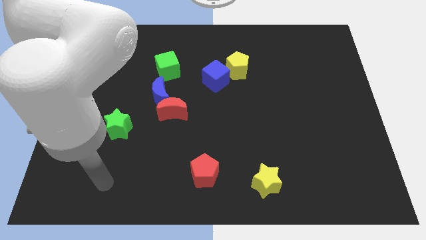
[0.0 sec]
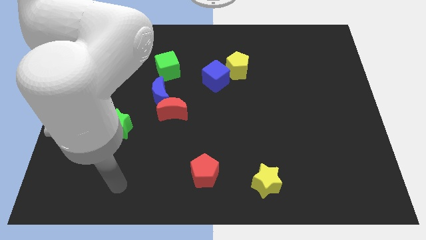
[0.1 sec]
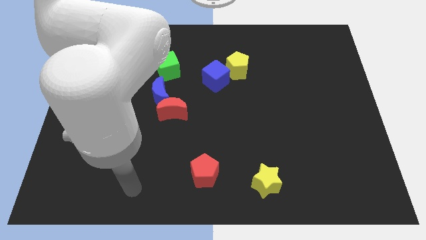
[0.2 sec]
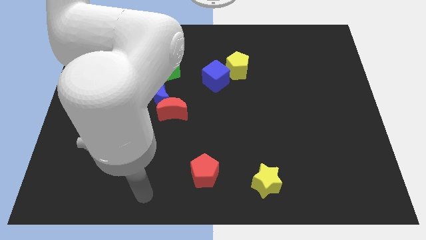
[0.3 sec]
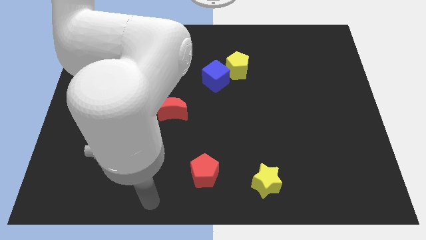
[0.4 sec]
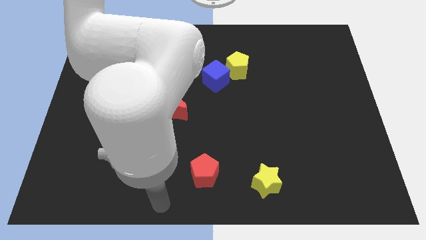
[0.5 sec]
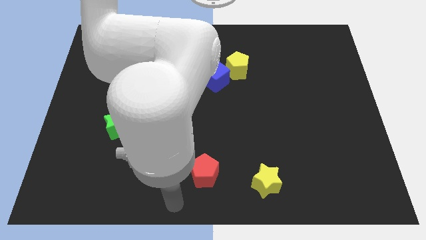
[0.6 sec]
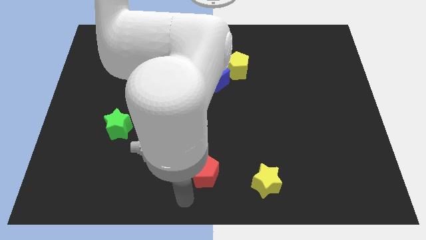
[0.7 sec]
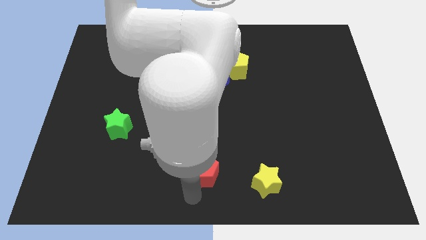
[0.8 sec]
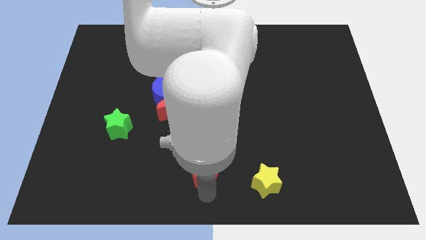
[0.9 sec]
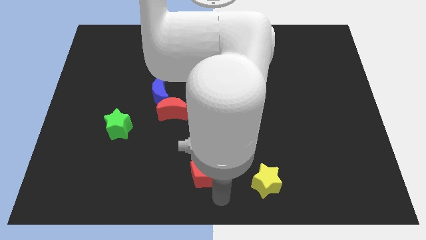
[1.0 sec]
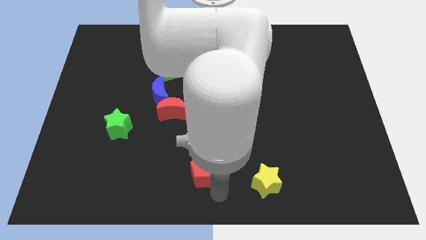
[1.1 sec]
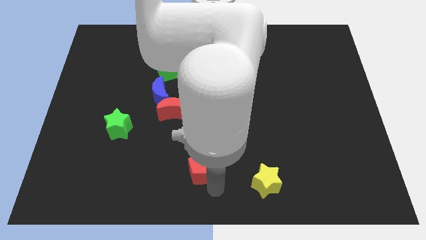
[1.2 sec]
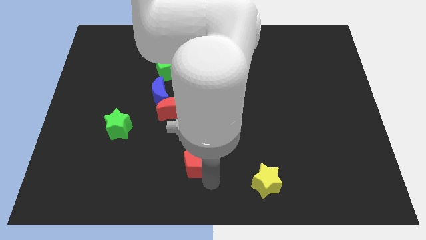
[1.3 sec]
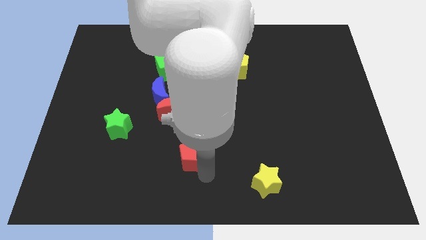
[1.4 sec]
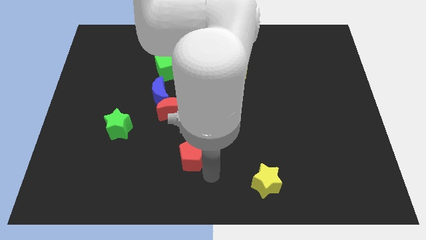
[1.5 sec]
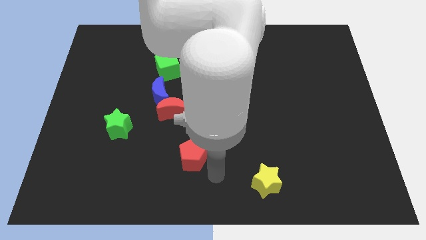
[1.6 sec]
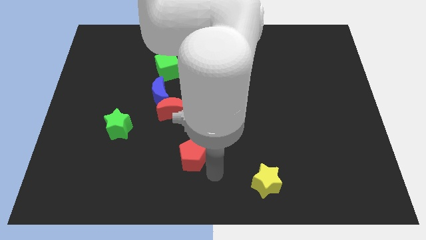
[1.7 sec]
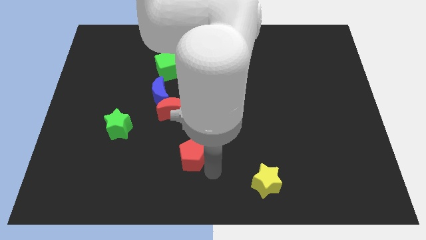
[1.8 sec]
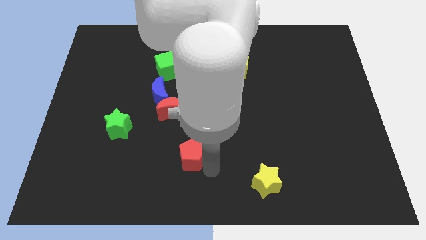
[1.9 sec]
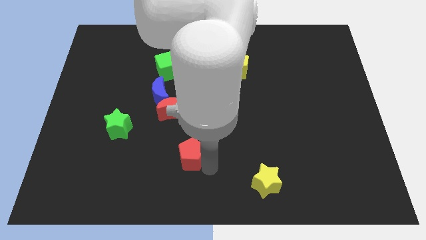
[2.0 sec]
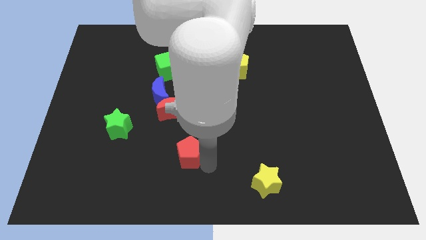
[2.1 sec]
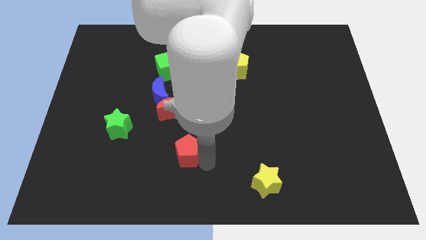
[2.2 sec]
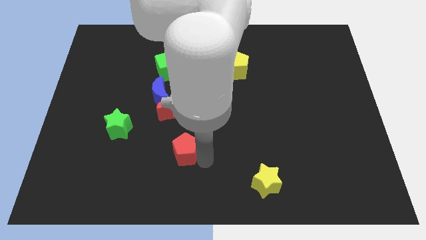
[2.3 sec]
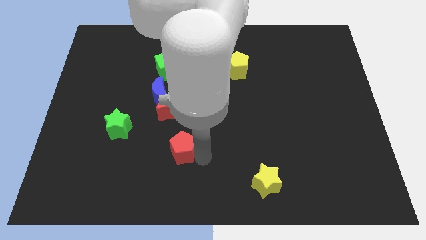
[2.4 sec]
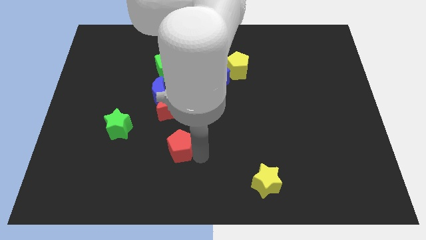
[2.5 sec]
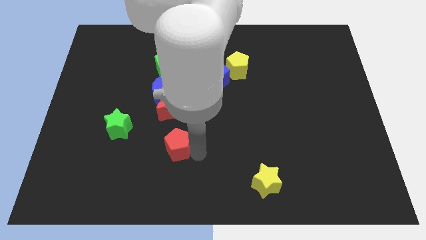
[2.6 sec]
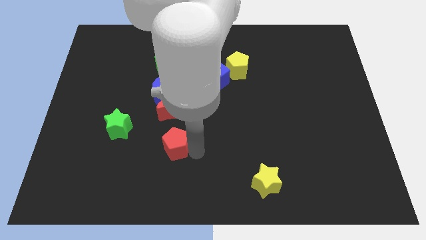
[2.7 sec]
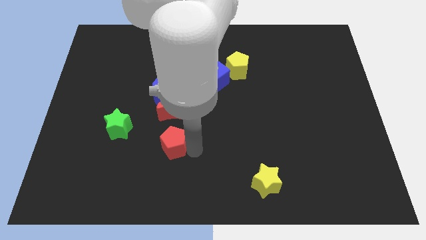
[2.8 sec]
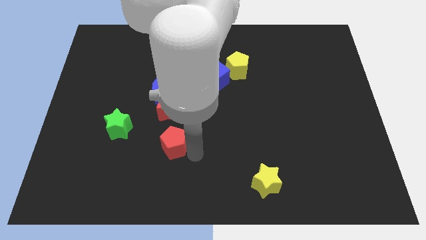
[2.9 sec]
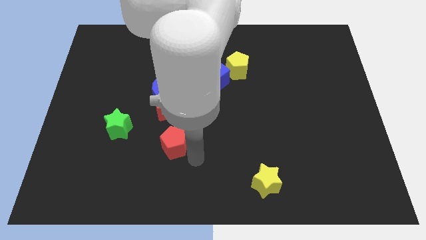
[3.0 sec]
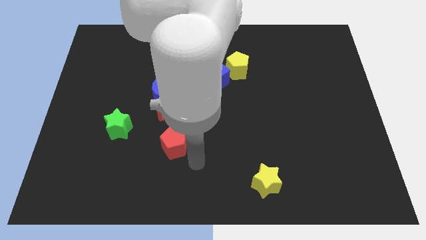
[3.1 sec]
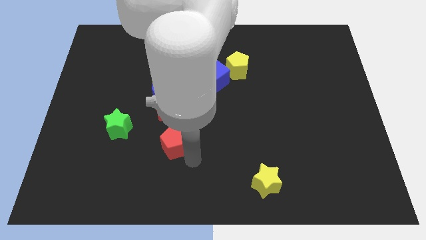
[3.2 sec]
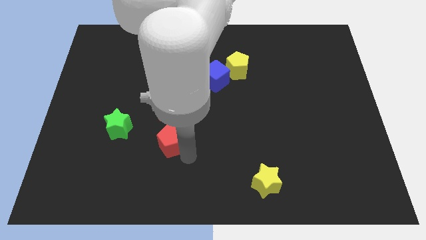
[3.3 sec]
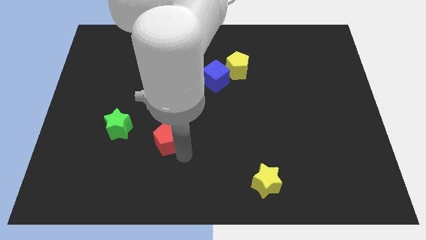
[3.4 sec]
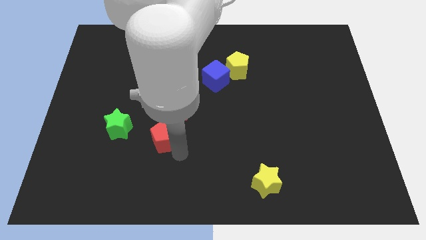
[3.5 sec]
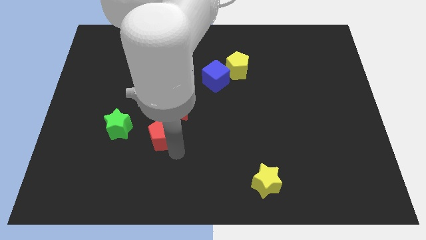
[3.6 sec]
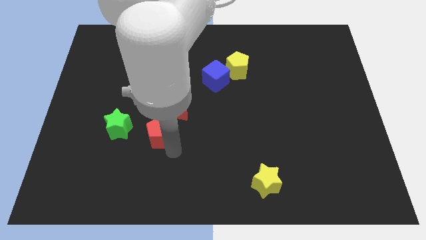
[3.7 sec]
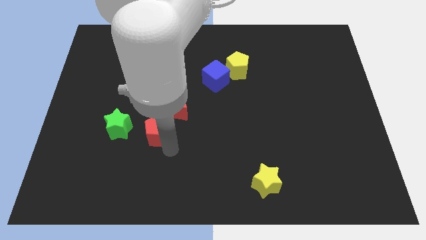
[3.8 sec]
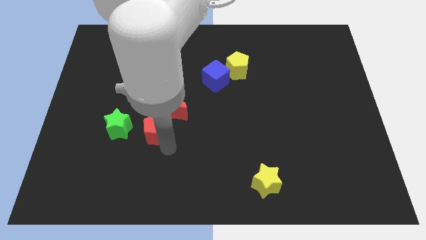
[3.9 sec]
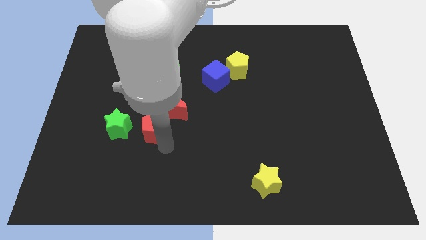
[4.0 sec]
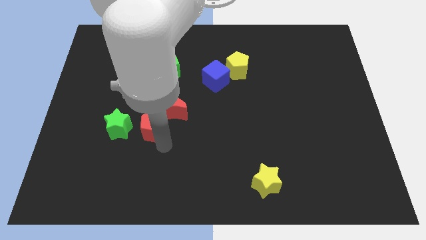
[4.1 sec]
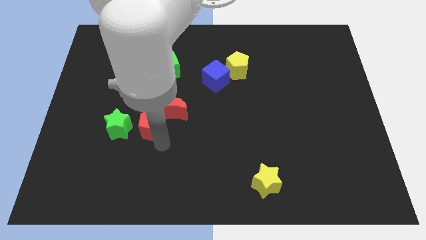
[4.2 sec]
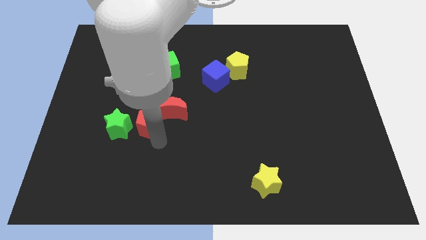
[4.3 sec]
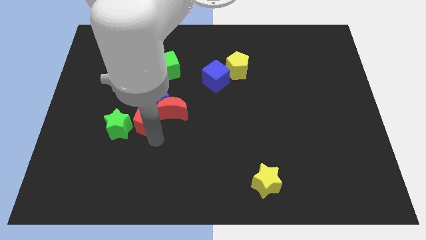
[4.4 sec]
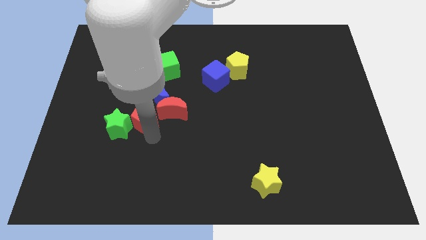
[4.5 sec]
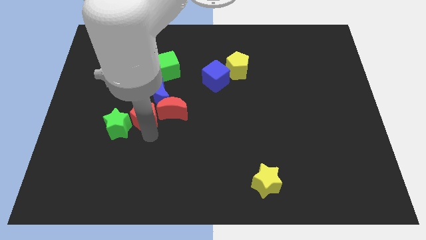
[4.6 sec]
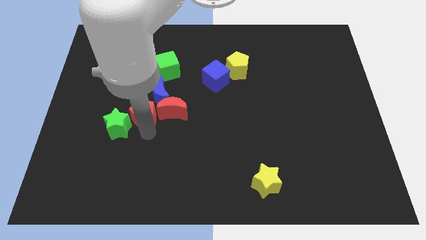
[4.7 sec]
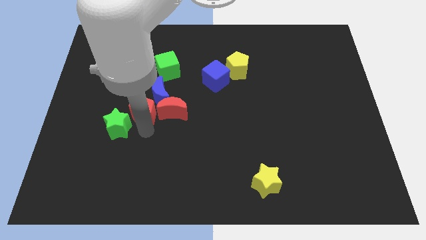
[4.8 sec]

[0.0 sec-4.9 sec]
put the red pentagon close to the blue moon

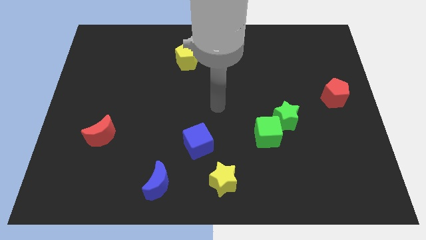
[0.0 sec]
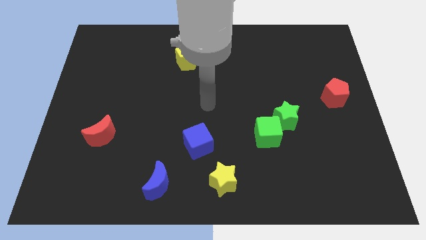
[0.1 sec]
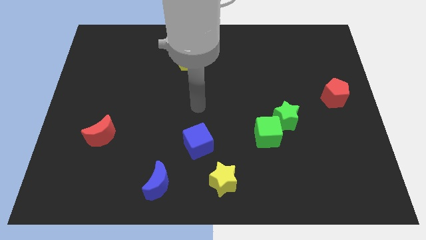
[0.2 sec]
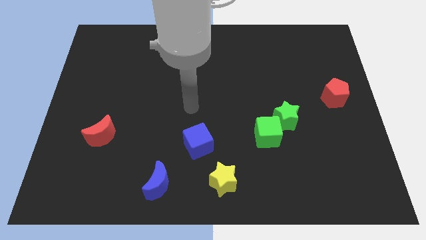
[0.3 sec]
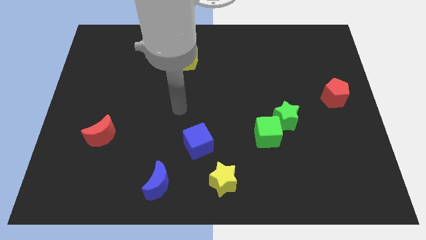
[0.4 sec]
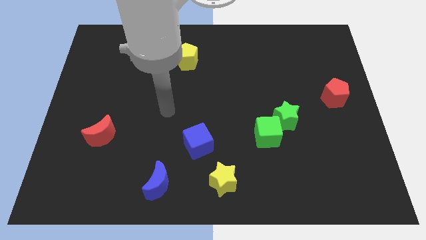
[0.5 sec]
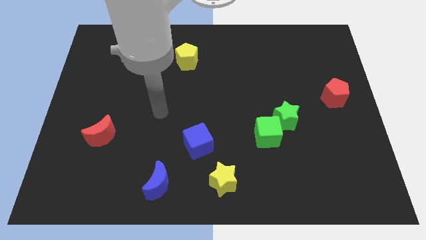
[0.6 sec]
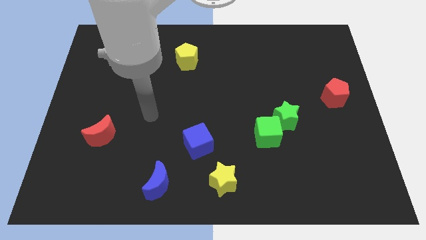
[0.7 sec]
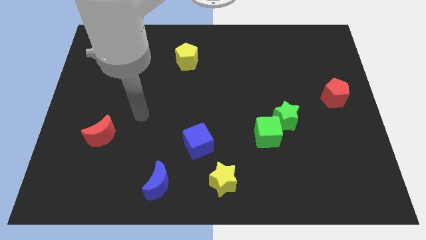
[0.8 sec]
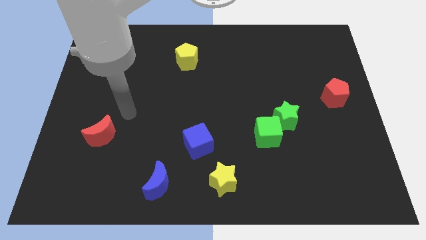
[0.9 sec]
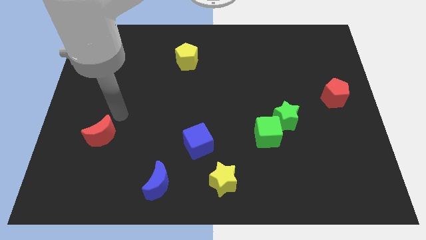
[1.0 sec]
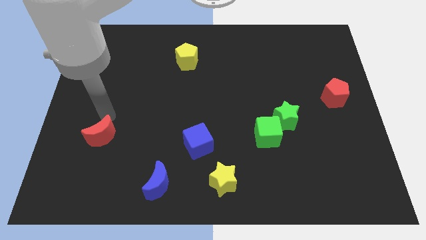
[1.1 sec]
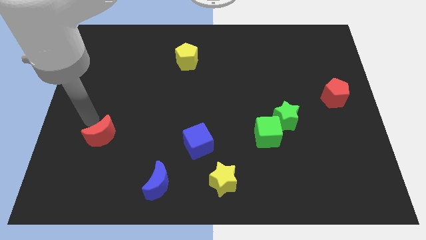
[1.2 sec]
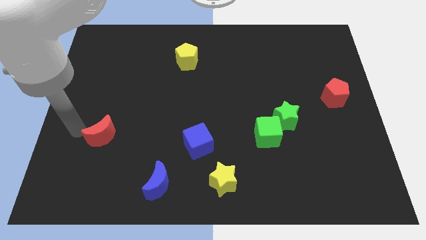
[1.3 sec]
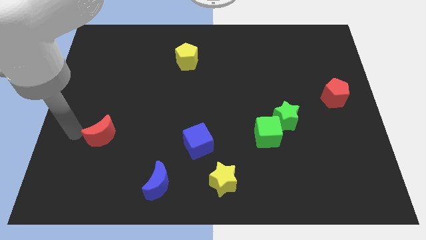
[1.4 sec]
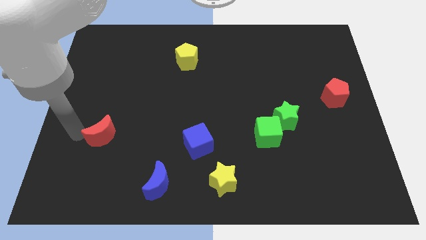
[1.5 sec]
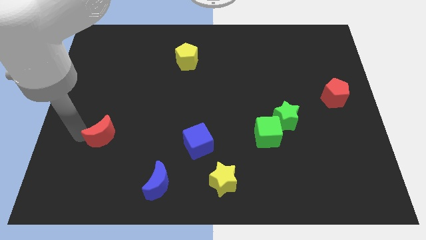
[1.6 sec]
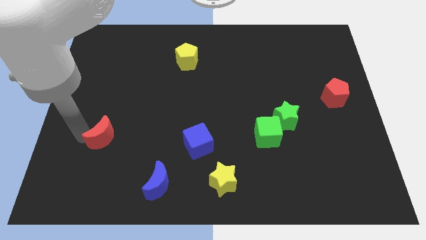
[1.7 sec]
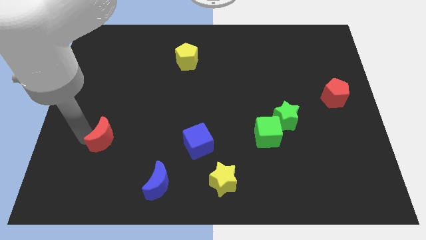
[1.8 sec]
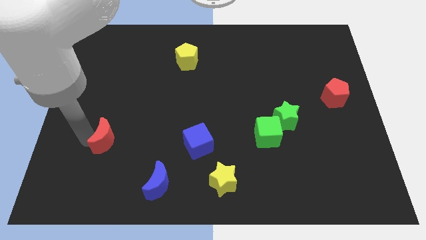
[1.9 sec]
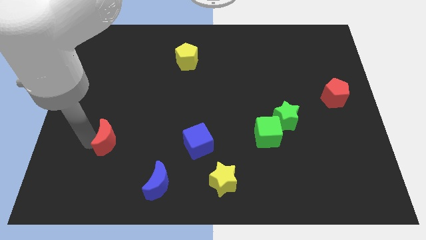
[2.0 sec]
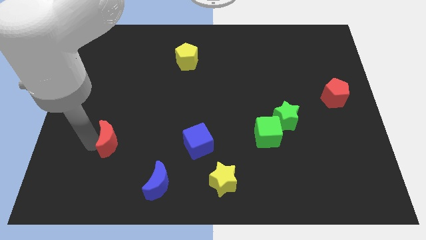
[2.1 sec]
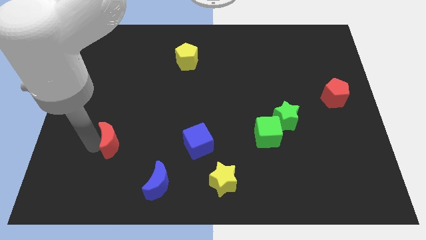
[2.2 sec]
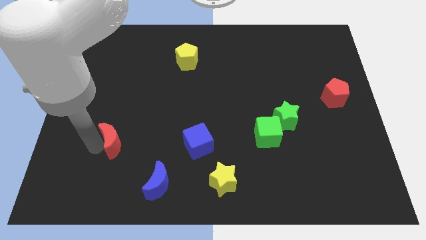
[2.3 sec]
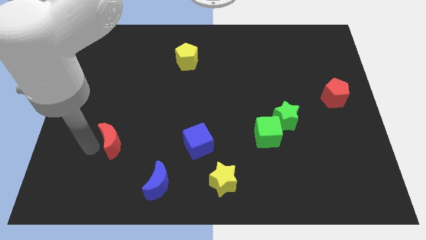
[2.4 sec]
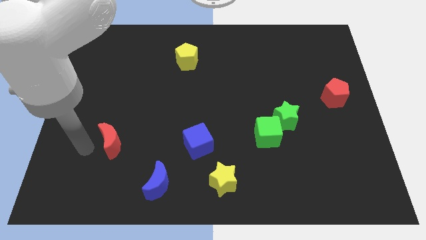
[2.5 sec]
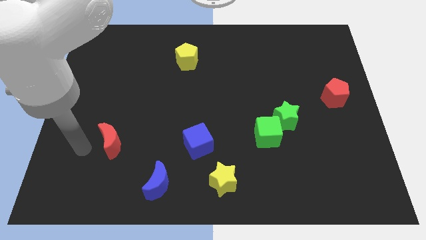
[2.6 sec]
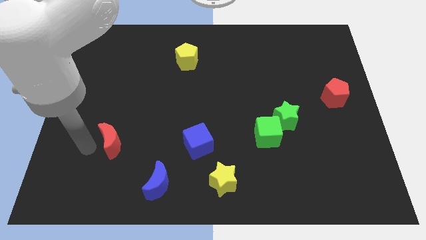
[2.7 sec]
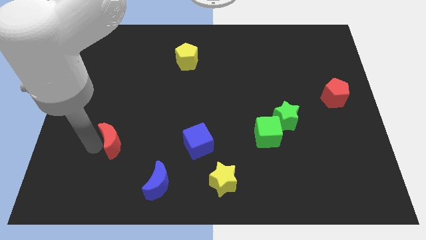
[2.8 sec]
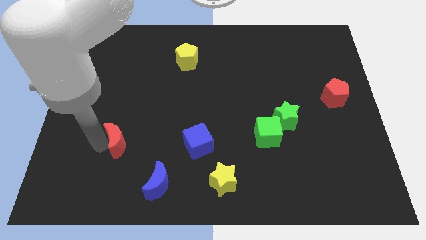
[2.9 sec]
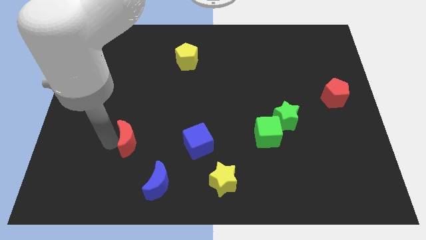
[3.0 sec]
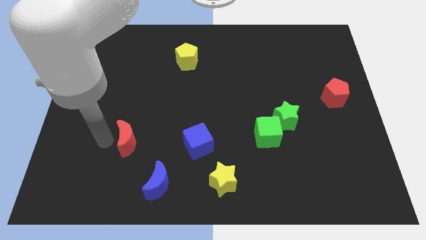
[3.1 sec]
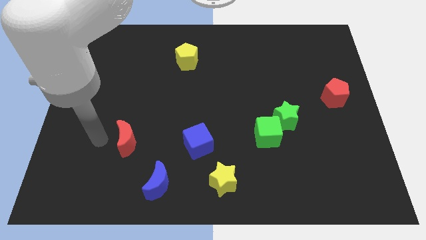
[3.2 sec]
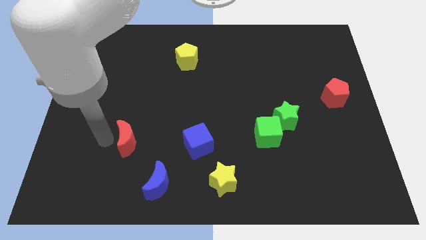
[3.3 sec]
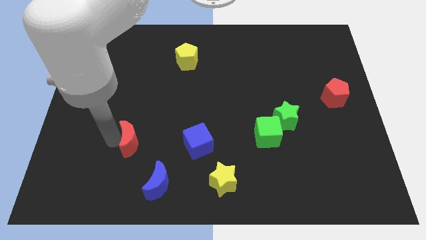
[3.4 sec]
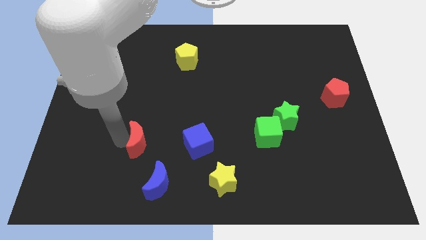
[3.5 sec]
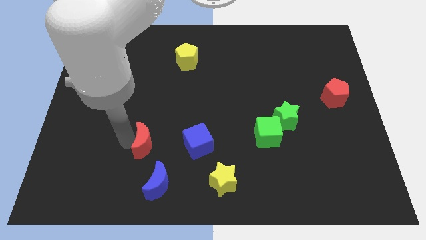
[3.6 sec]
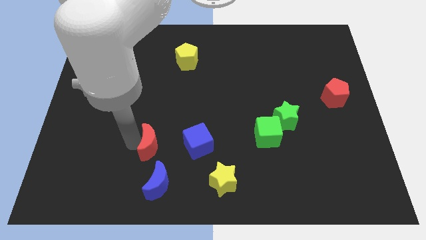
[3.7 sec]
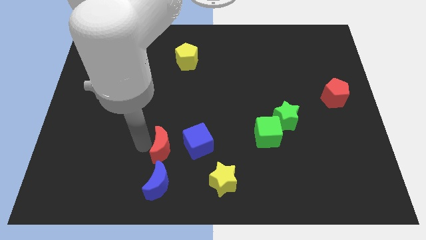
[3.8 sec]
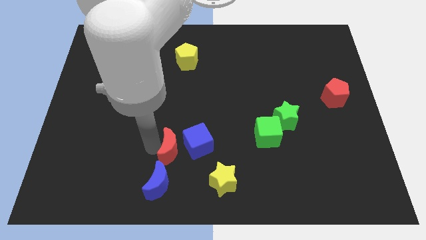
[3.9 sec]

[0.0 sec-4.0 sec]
put the red moon close to the blue cube
